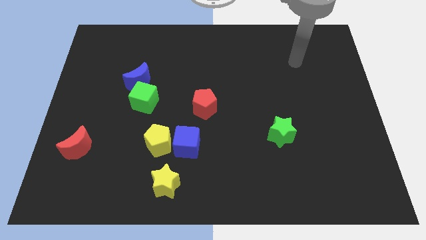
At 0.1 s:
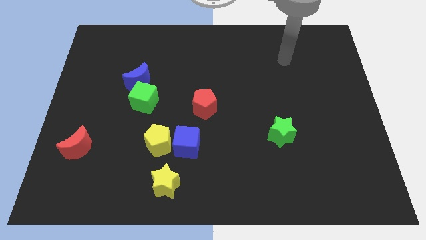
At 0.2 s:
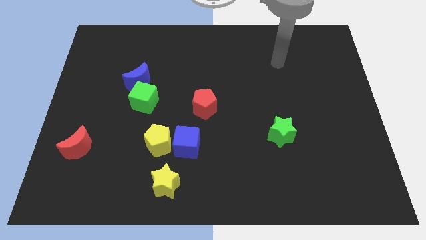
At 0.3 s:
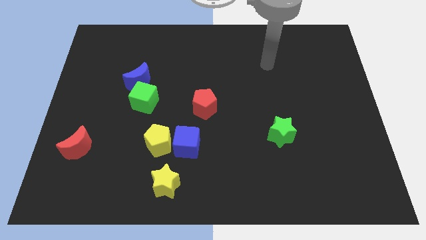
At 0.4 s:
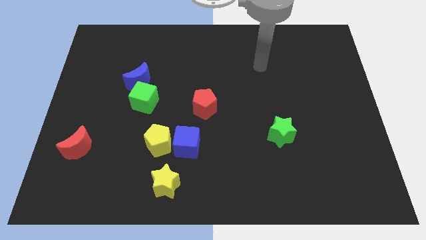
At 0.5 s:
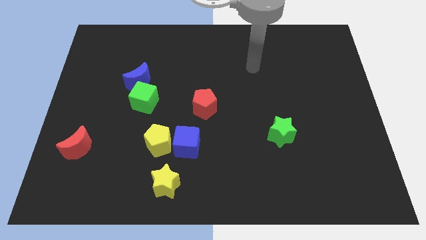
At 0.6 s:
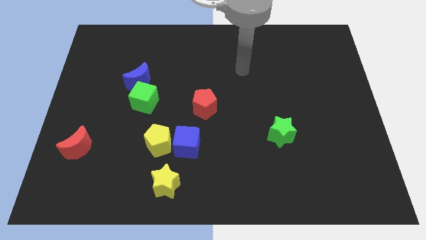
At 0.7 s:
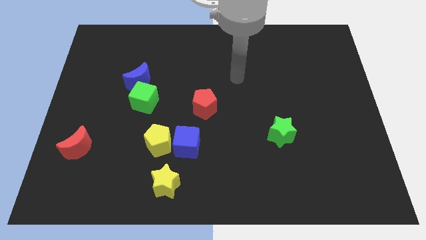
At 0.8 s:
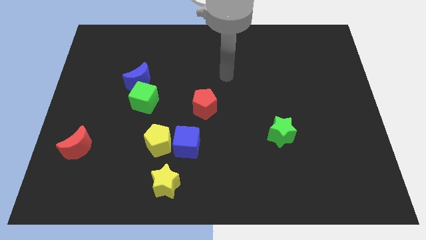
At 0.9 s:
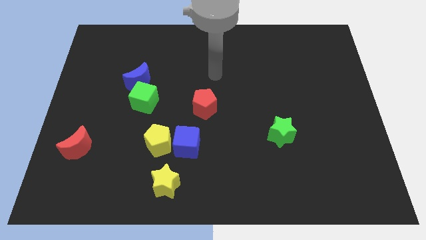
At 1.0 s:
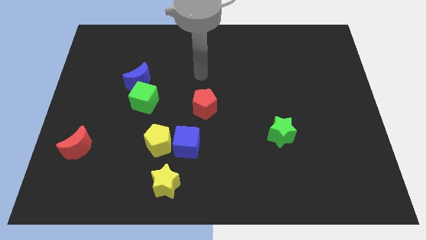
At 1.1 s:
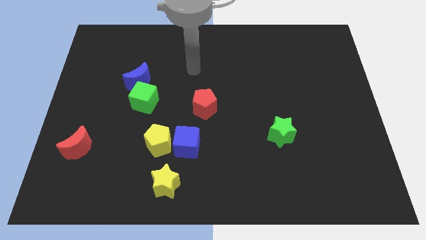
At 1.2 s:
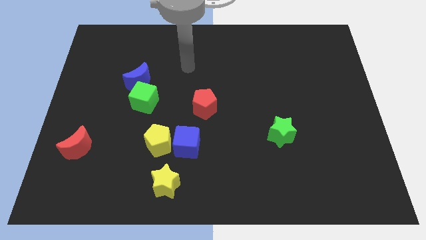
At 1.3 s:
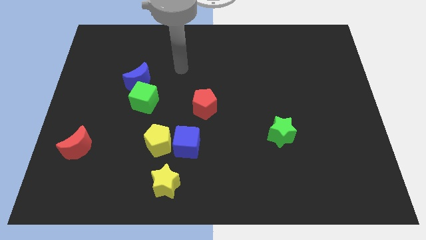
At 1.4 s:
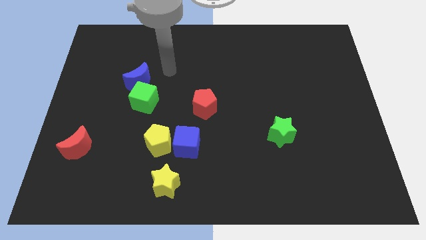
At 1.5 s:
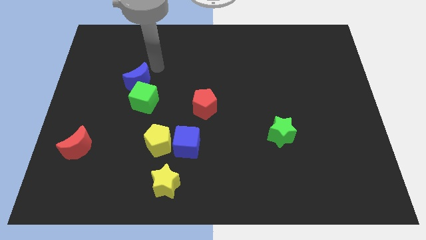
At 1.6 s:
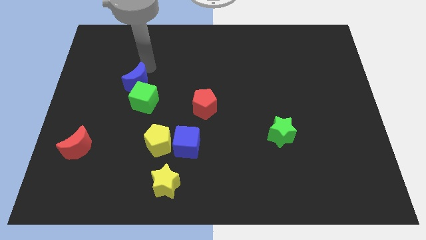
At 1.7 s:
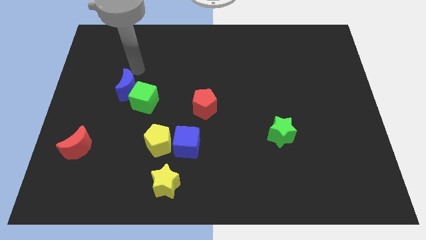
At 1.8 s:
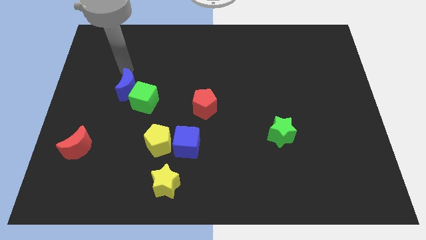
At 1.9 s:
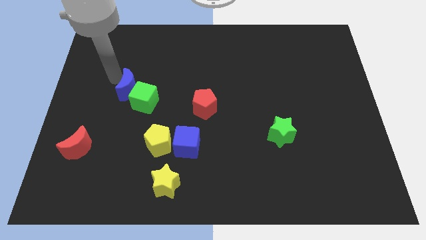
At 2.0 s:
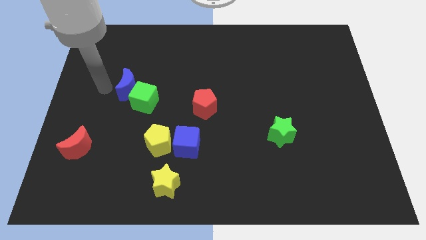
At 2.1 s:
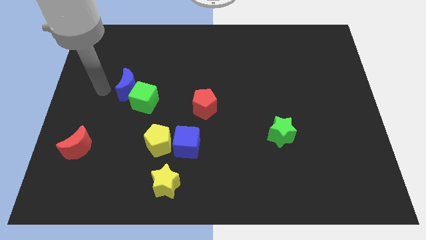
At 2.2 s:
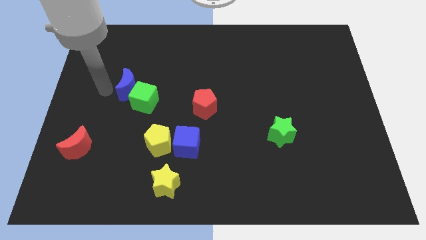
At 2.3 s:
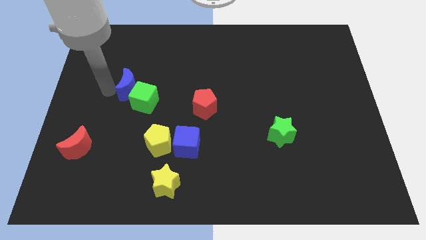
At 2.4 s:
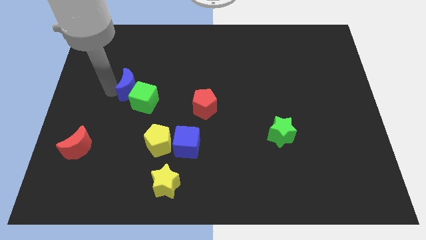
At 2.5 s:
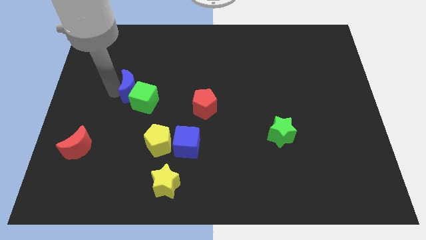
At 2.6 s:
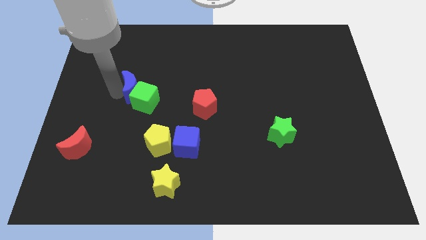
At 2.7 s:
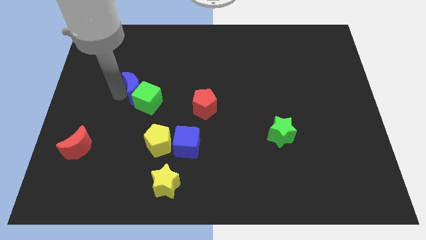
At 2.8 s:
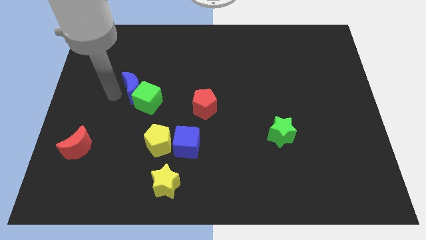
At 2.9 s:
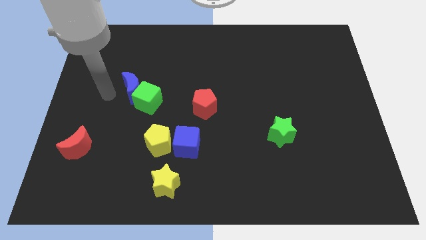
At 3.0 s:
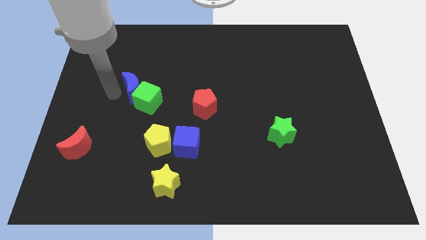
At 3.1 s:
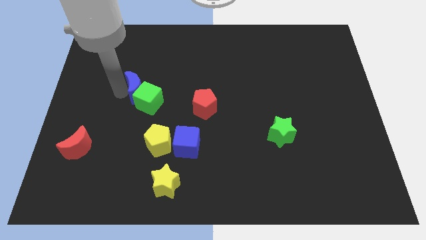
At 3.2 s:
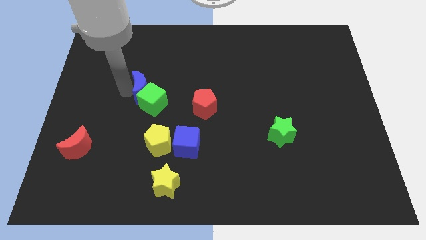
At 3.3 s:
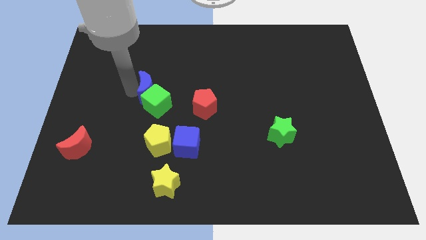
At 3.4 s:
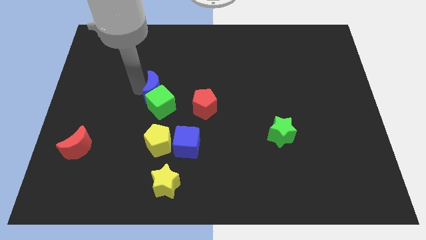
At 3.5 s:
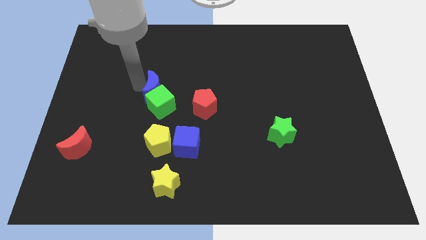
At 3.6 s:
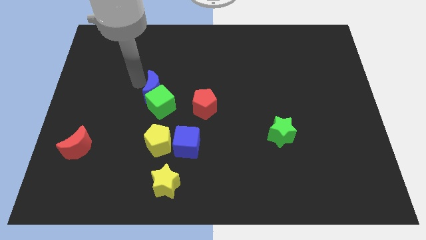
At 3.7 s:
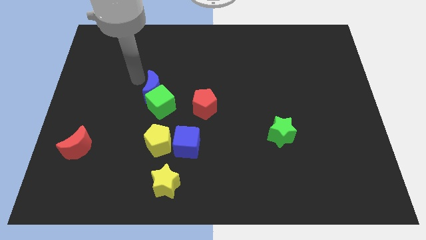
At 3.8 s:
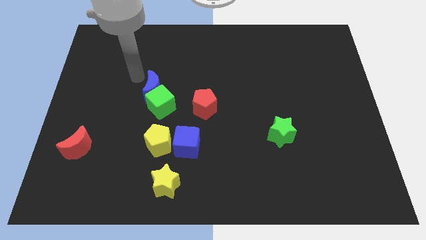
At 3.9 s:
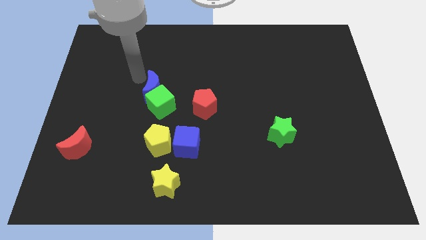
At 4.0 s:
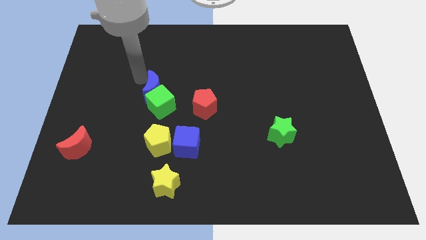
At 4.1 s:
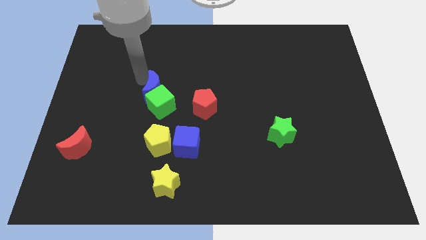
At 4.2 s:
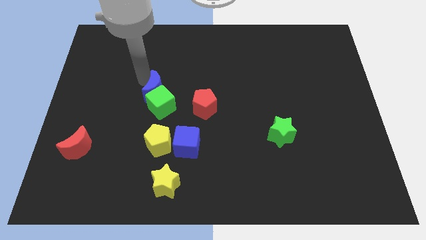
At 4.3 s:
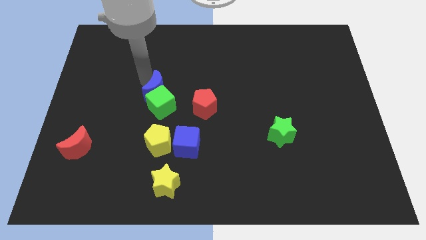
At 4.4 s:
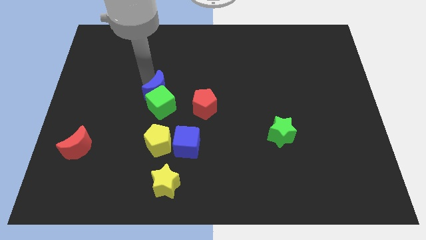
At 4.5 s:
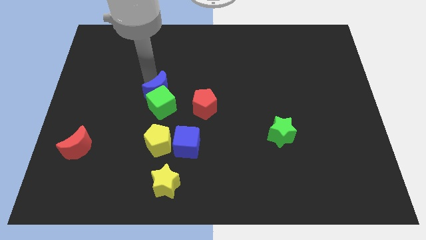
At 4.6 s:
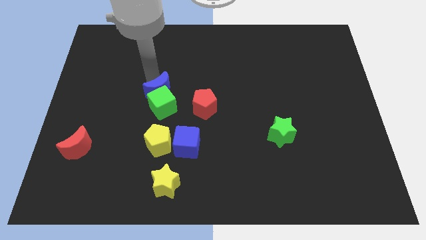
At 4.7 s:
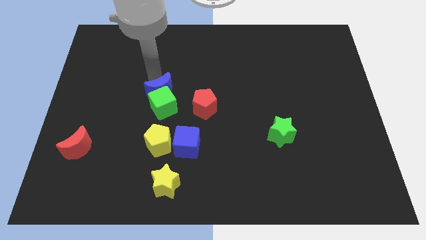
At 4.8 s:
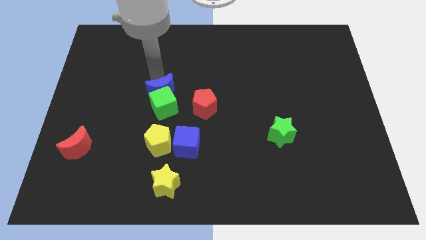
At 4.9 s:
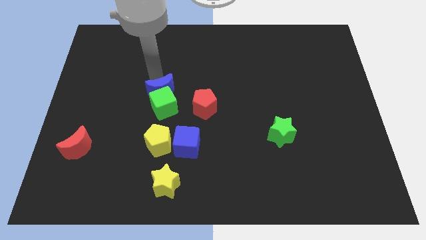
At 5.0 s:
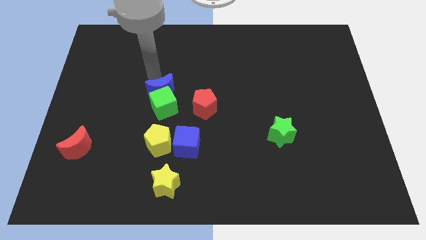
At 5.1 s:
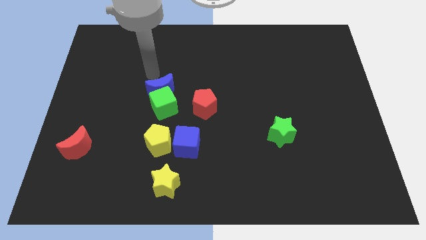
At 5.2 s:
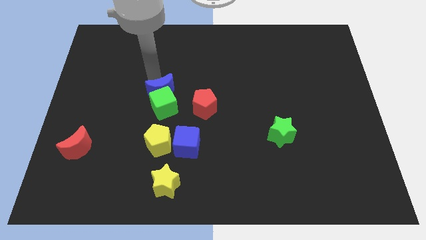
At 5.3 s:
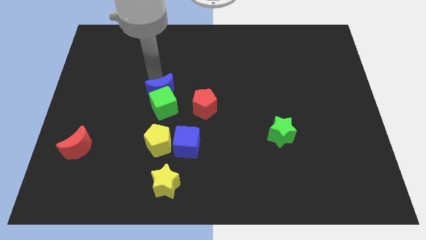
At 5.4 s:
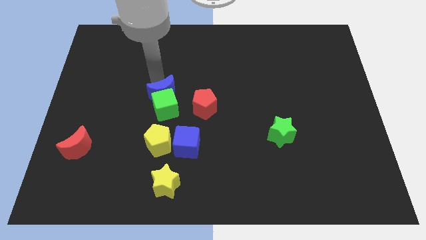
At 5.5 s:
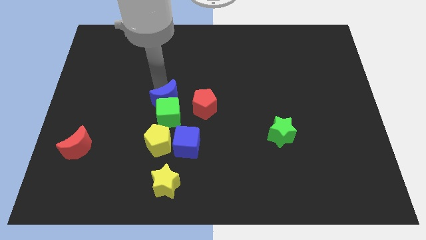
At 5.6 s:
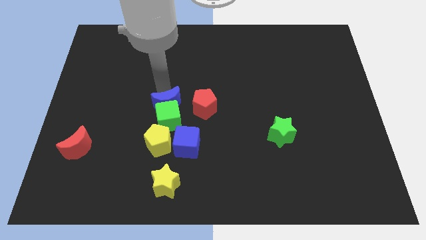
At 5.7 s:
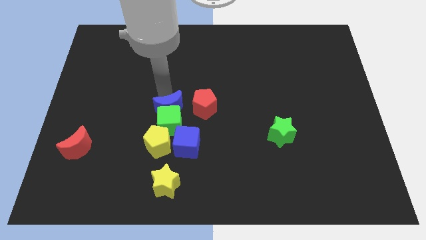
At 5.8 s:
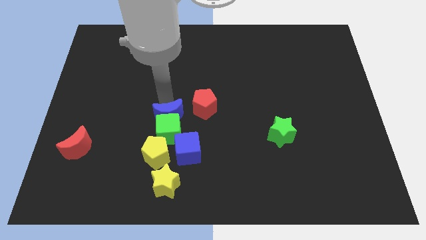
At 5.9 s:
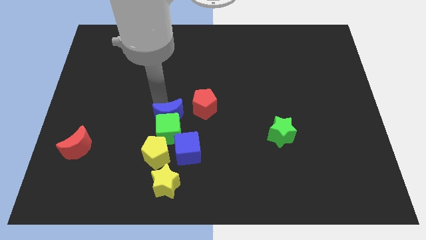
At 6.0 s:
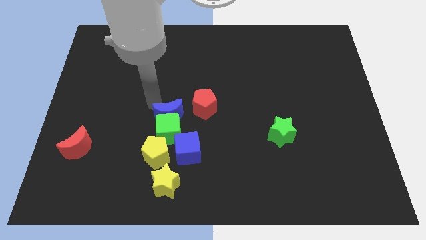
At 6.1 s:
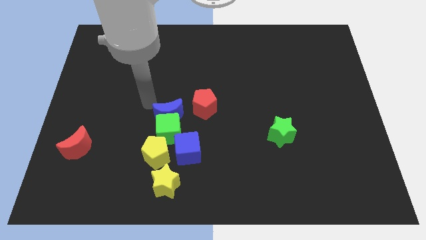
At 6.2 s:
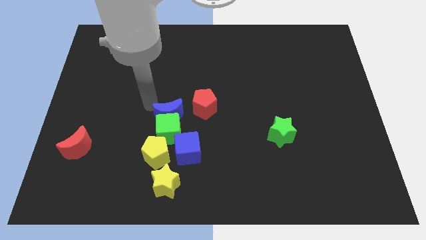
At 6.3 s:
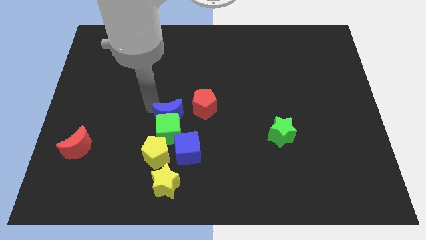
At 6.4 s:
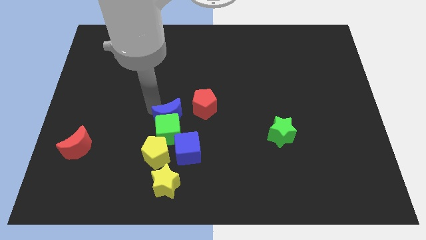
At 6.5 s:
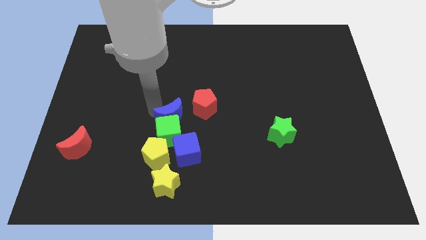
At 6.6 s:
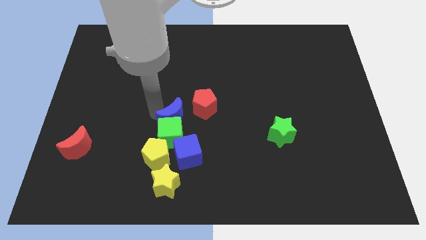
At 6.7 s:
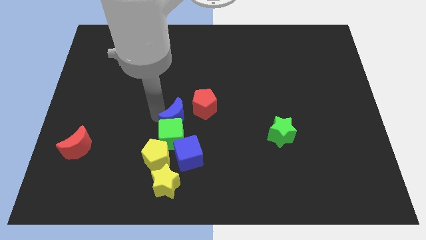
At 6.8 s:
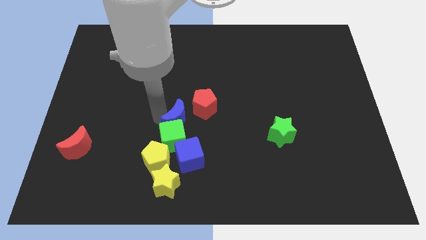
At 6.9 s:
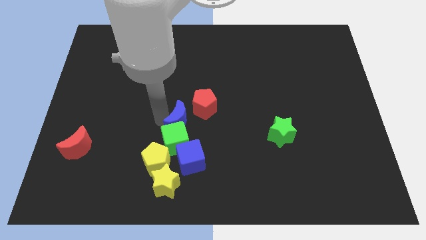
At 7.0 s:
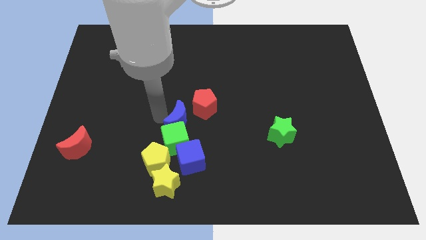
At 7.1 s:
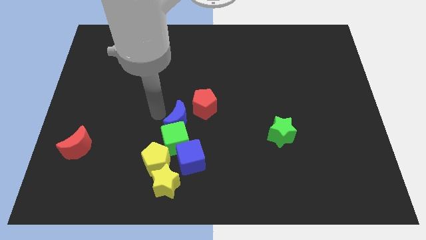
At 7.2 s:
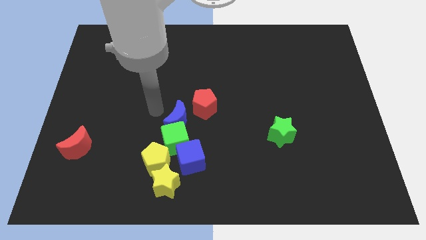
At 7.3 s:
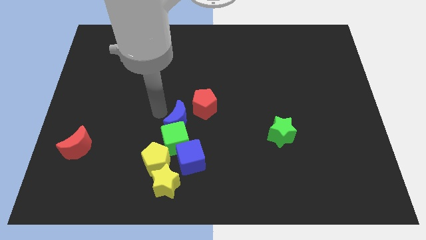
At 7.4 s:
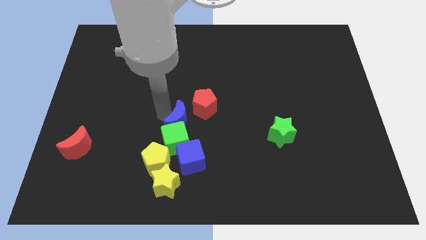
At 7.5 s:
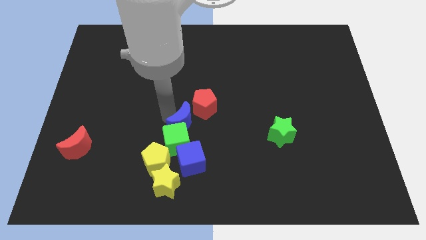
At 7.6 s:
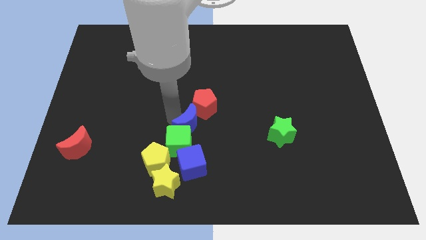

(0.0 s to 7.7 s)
move the blue moon to the bottom side of the red pentagon
